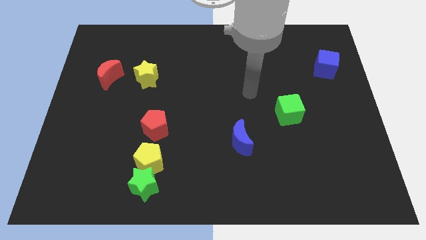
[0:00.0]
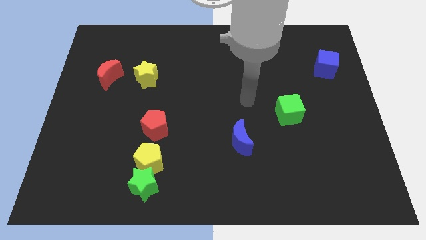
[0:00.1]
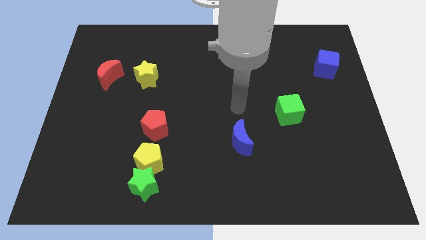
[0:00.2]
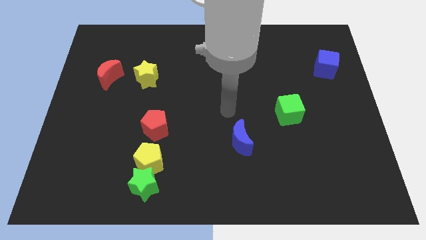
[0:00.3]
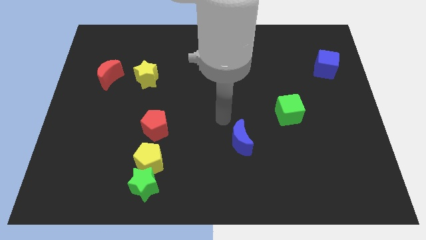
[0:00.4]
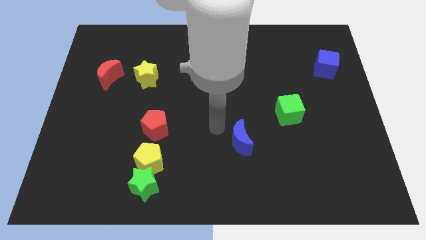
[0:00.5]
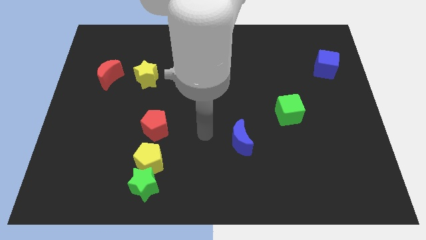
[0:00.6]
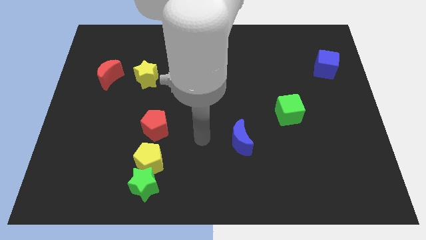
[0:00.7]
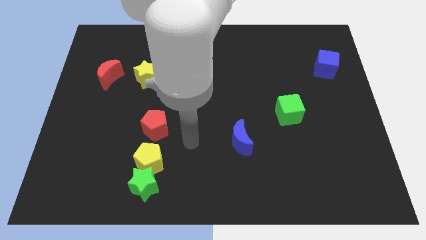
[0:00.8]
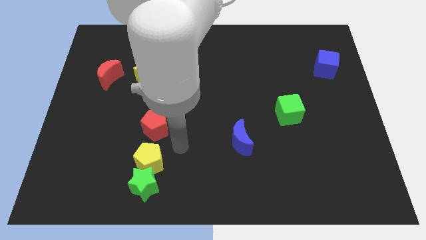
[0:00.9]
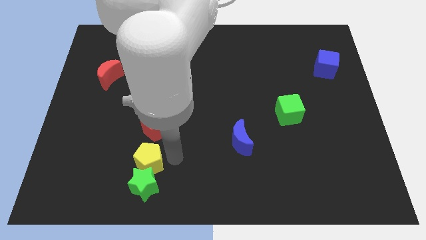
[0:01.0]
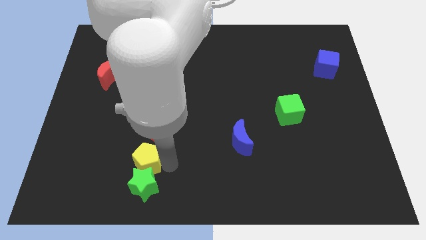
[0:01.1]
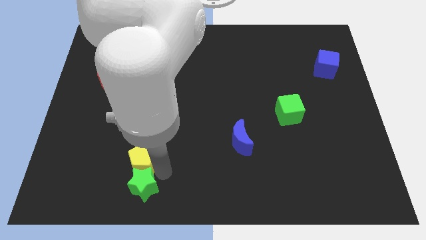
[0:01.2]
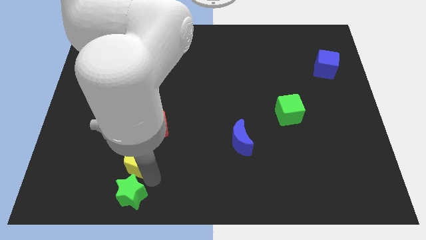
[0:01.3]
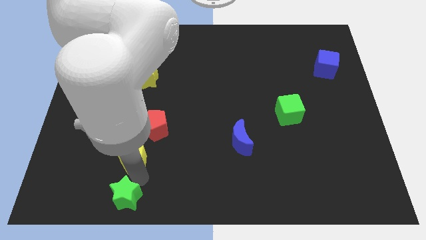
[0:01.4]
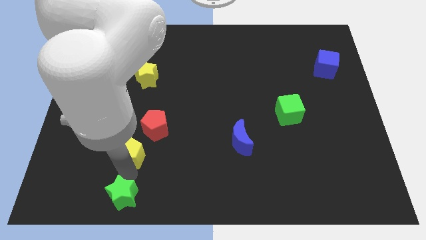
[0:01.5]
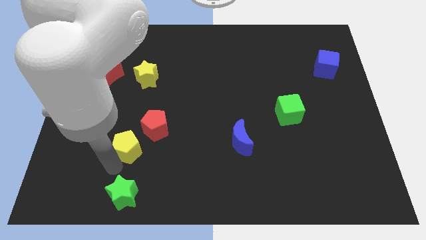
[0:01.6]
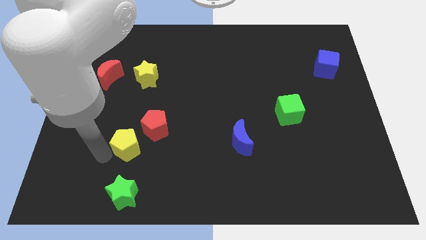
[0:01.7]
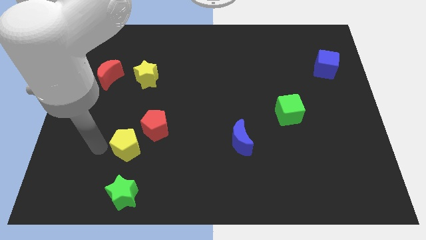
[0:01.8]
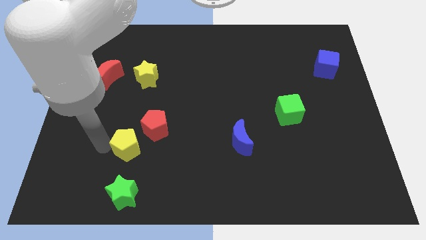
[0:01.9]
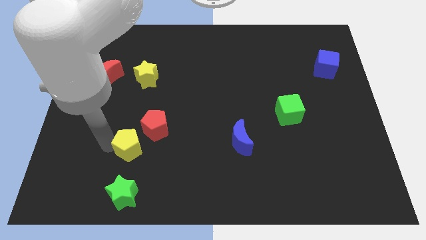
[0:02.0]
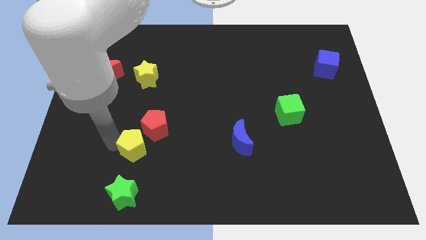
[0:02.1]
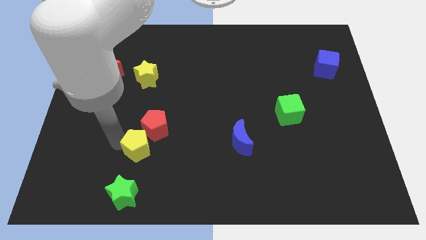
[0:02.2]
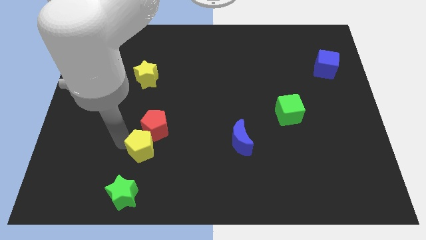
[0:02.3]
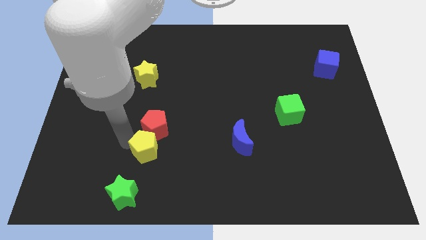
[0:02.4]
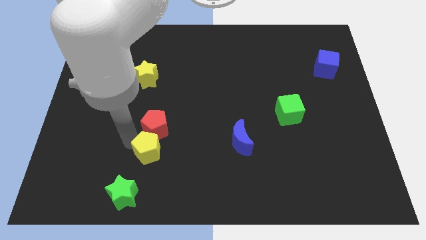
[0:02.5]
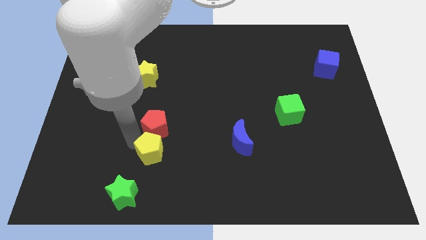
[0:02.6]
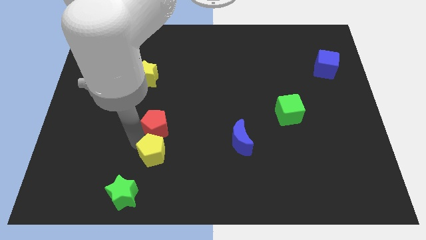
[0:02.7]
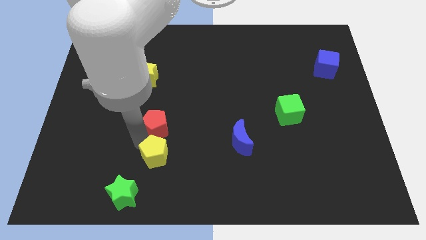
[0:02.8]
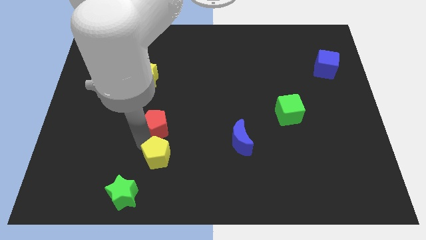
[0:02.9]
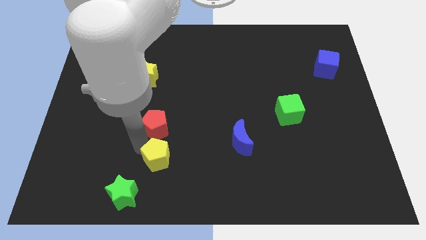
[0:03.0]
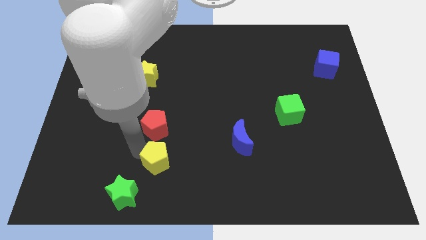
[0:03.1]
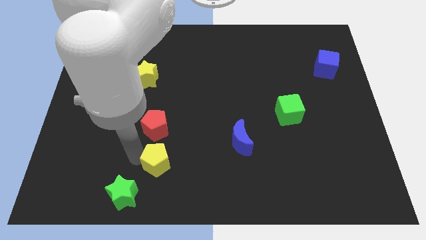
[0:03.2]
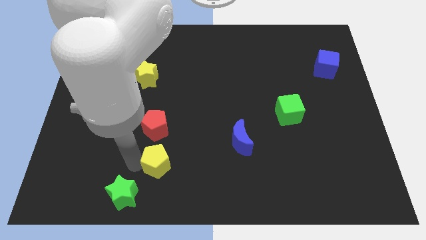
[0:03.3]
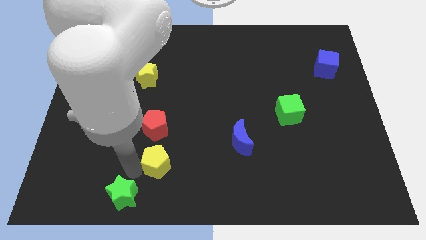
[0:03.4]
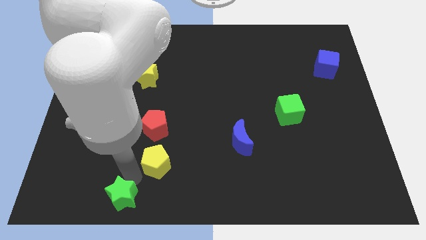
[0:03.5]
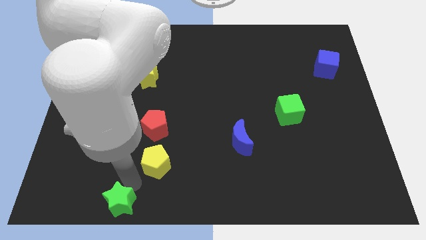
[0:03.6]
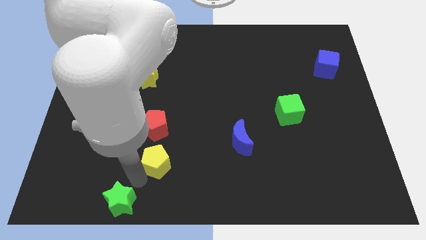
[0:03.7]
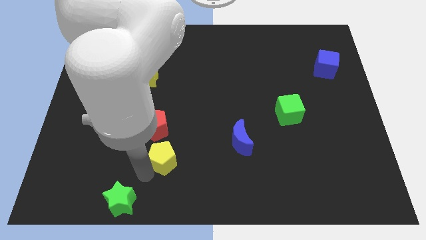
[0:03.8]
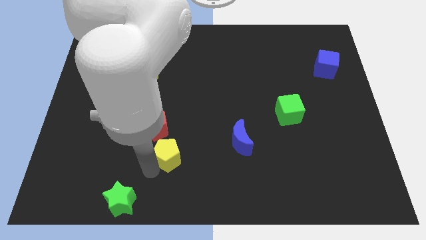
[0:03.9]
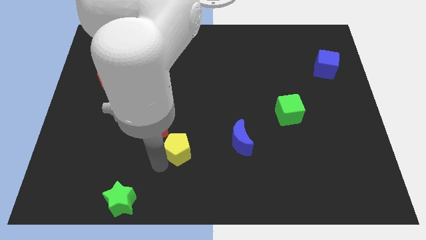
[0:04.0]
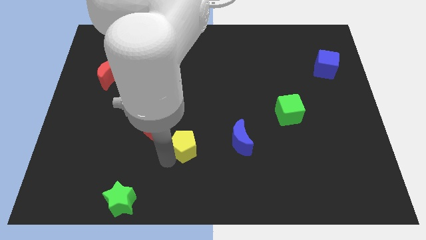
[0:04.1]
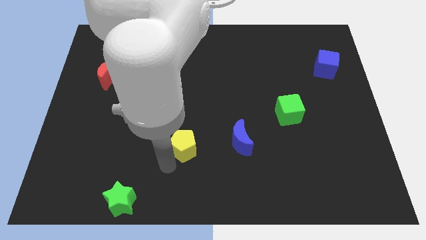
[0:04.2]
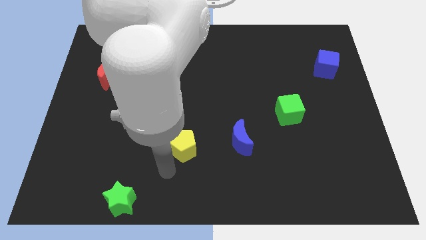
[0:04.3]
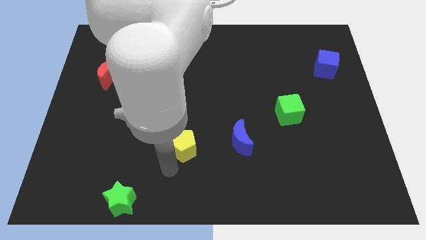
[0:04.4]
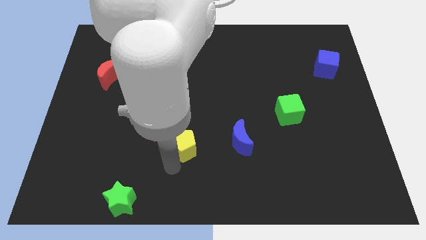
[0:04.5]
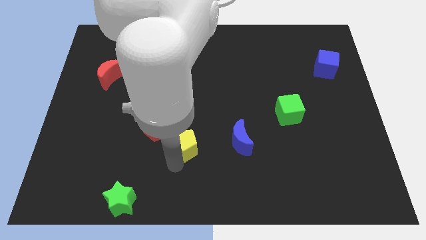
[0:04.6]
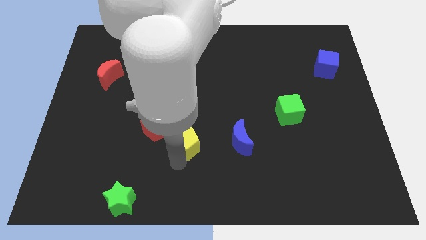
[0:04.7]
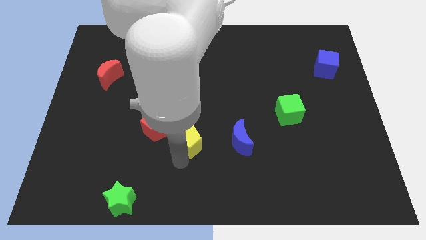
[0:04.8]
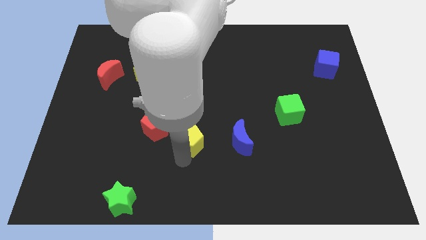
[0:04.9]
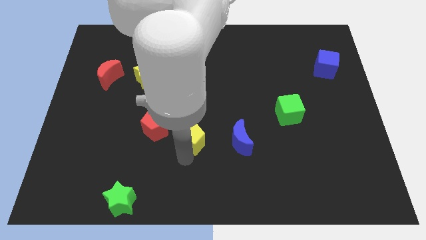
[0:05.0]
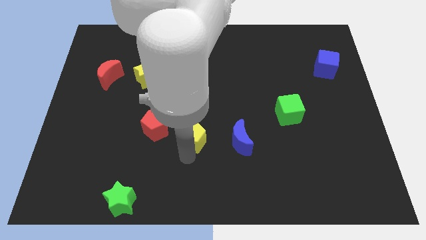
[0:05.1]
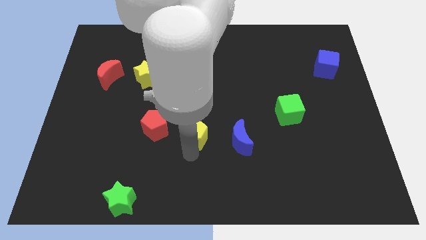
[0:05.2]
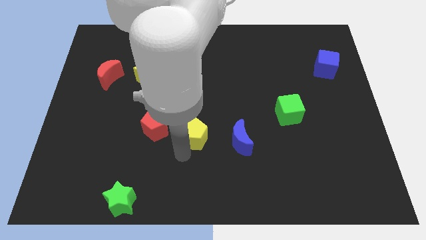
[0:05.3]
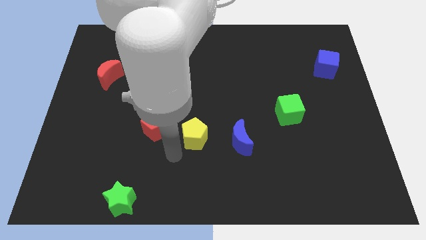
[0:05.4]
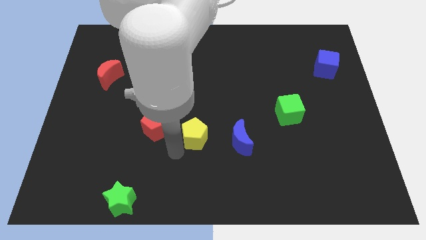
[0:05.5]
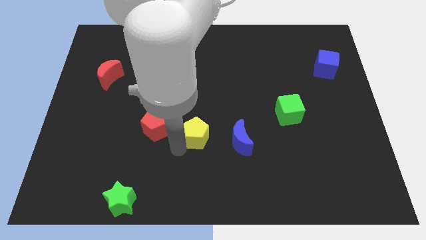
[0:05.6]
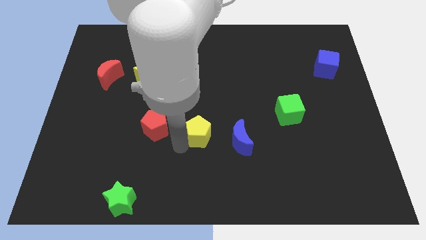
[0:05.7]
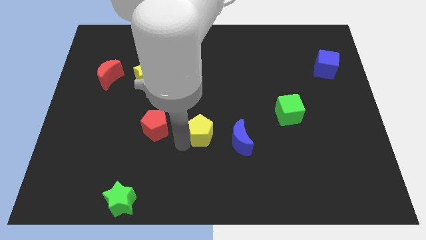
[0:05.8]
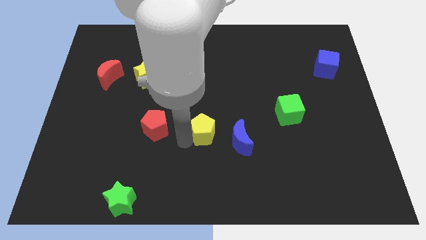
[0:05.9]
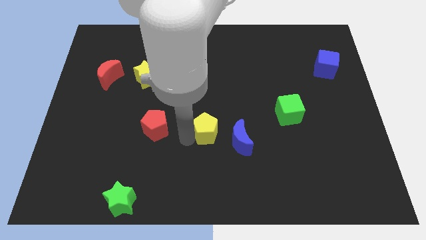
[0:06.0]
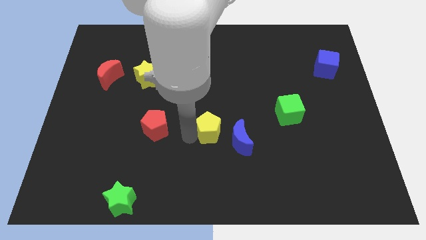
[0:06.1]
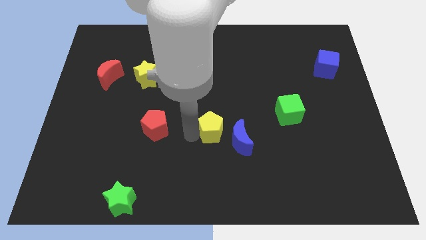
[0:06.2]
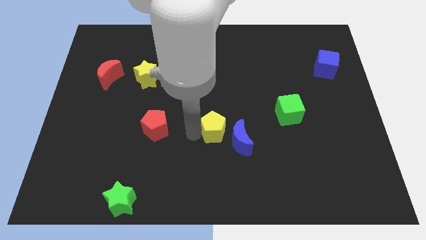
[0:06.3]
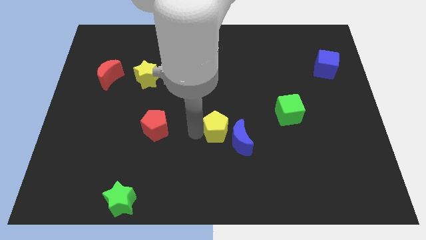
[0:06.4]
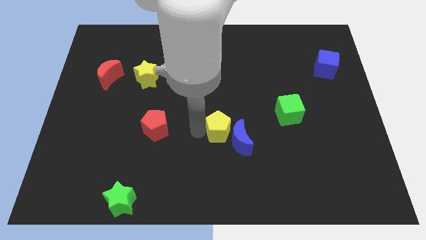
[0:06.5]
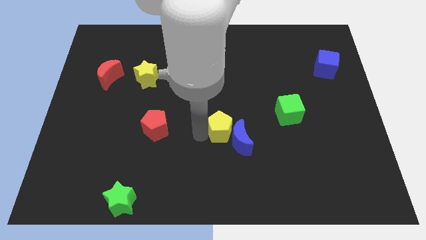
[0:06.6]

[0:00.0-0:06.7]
move the yellow pentagon above the blue moon
